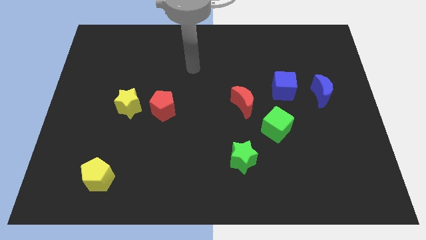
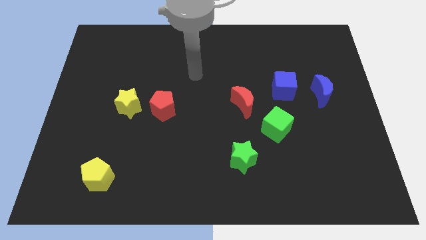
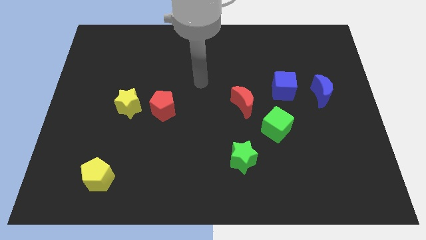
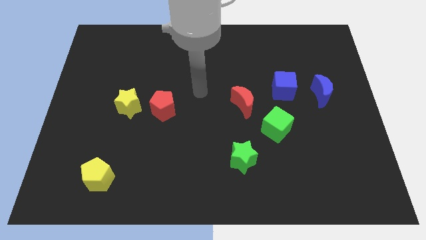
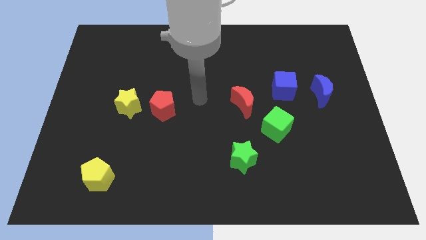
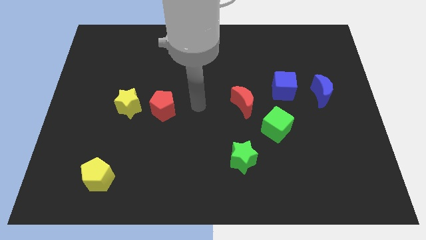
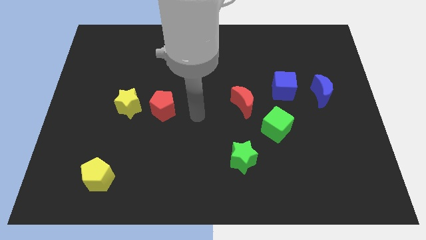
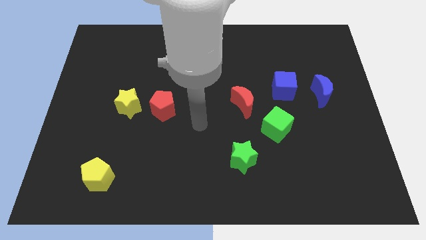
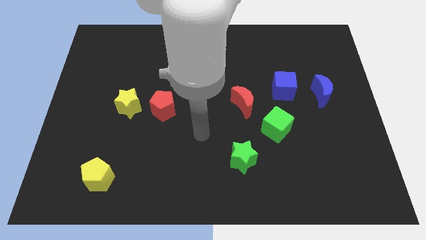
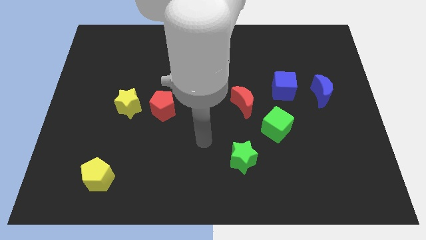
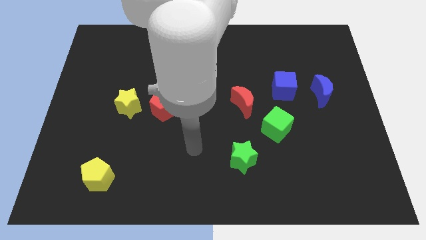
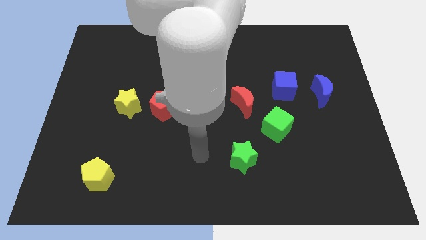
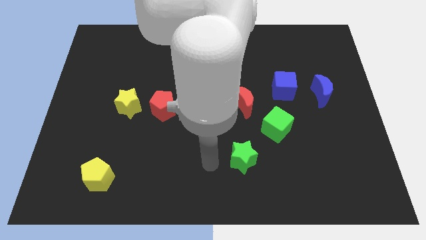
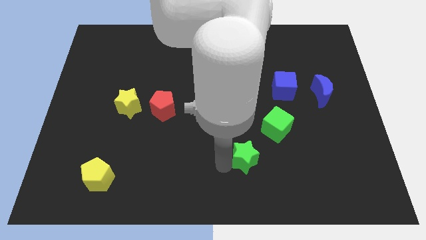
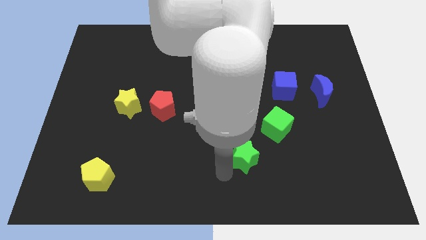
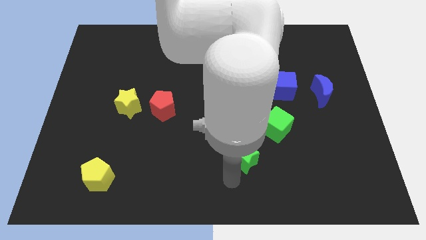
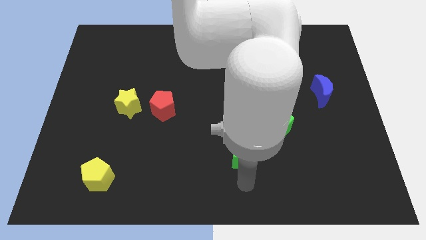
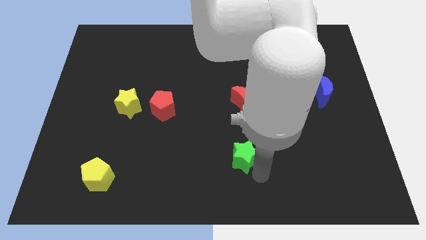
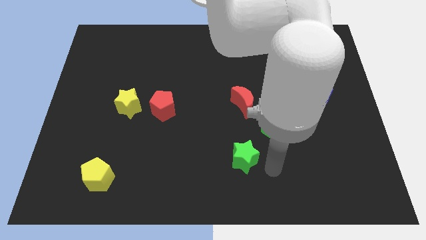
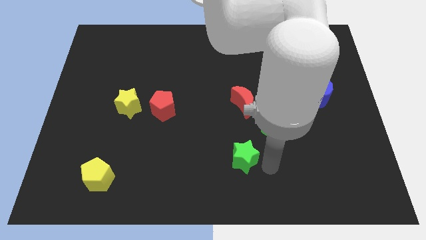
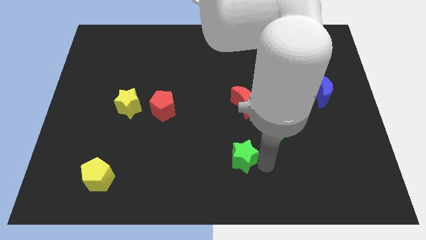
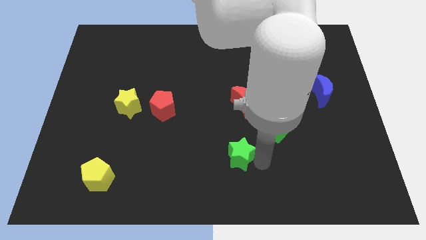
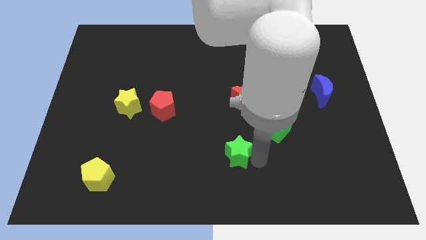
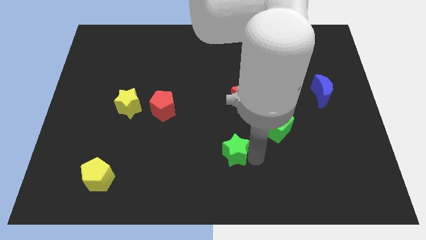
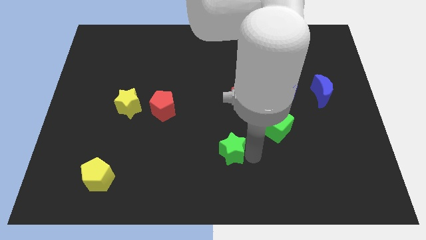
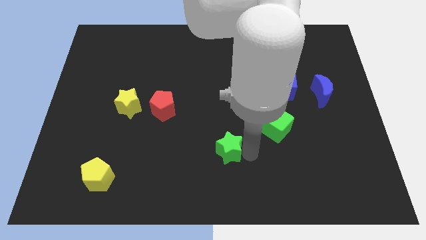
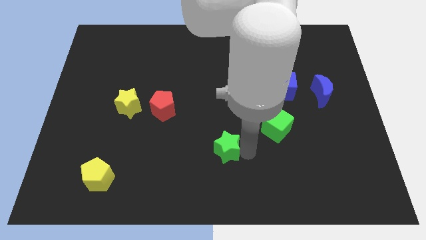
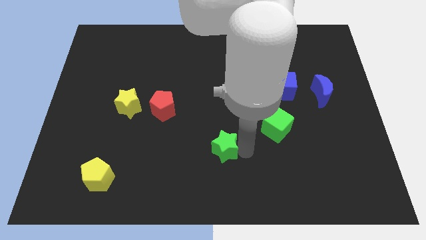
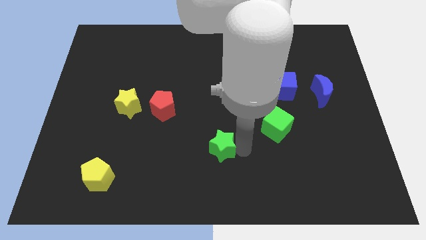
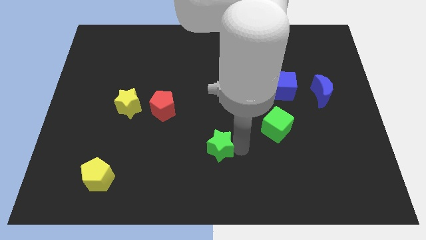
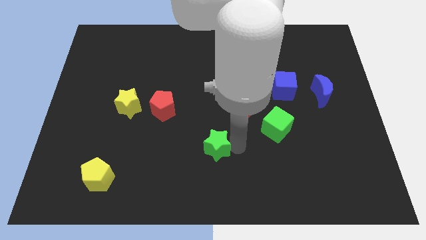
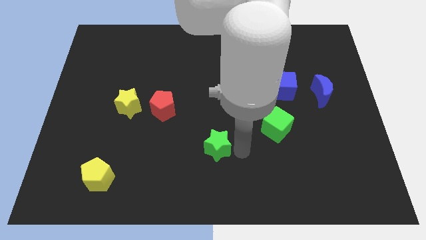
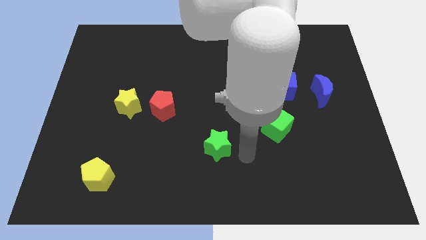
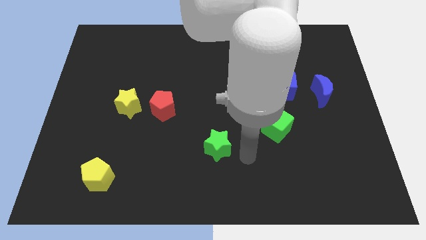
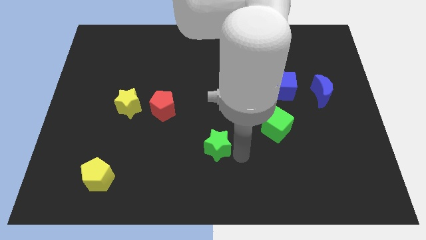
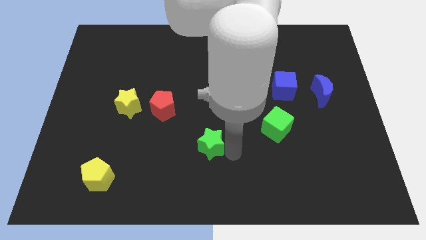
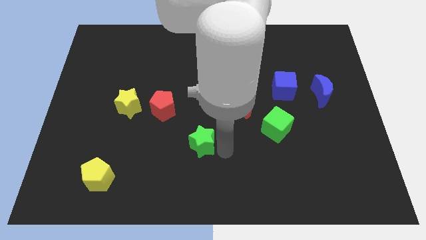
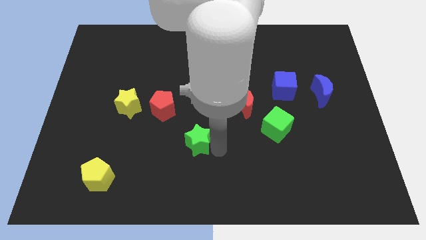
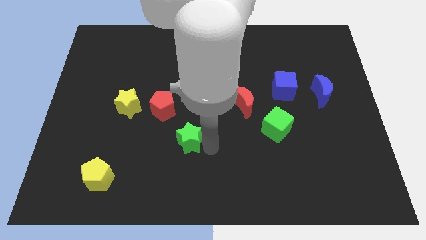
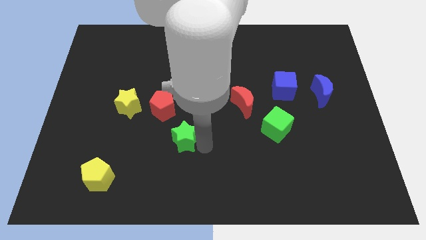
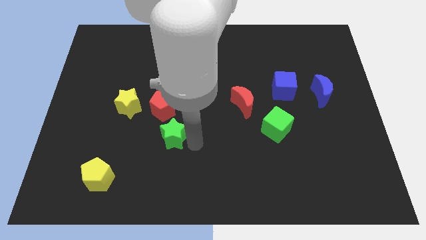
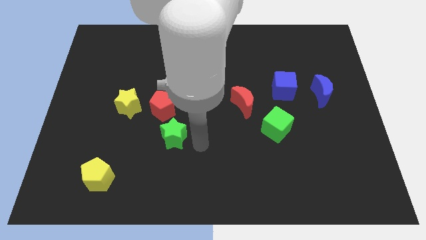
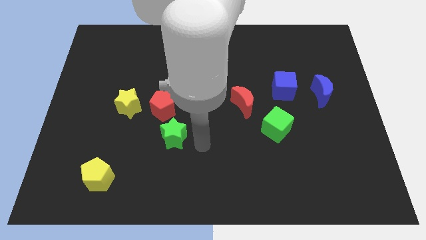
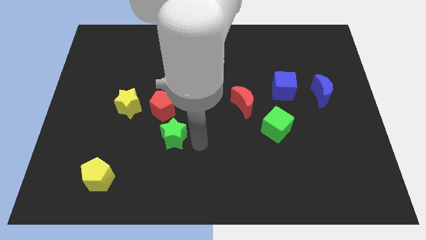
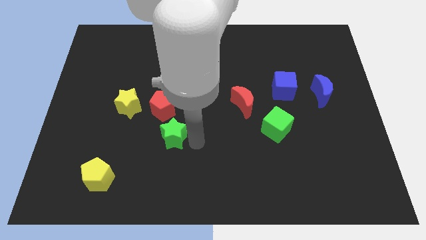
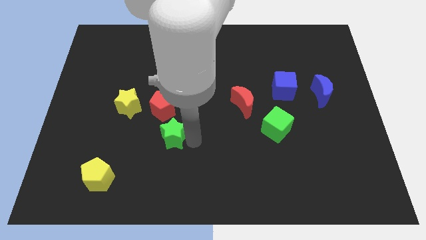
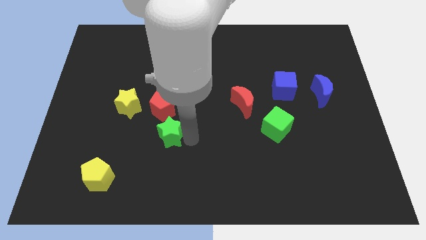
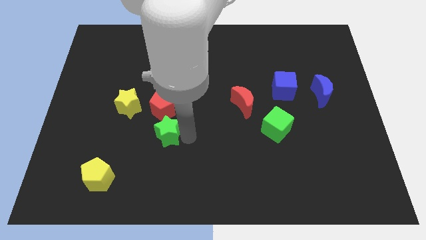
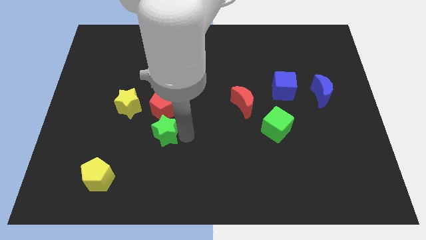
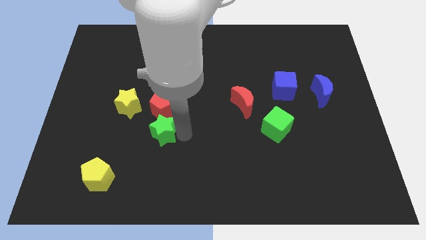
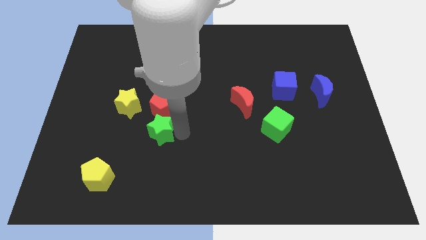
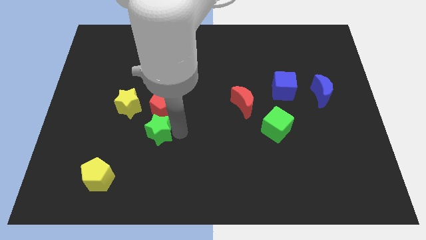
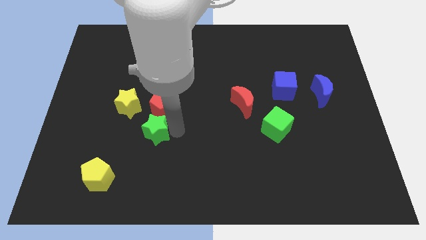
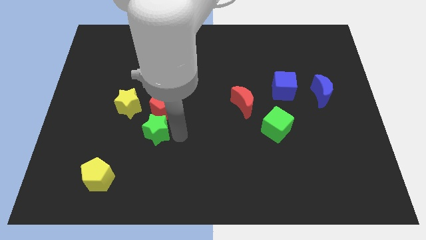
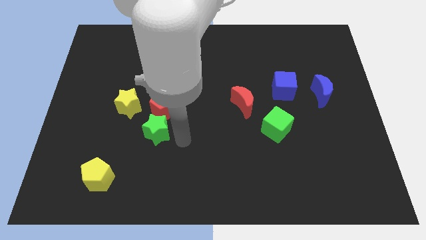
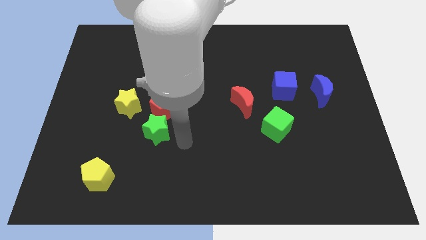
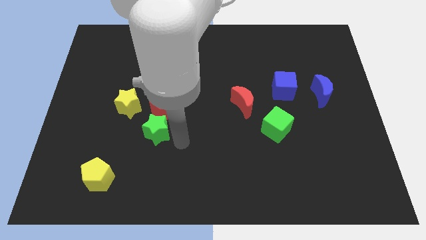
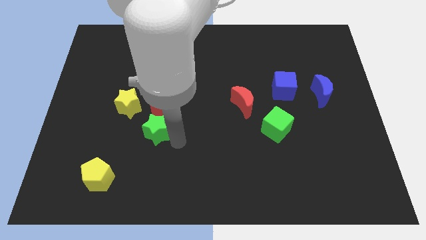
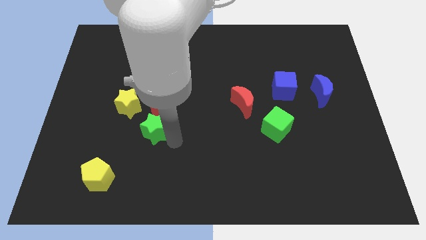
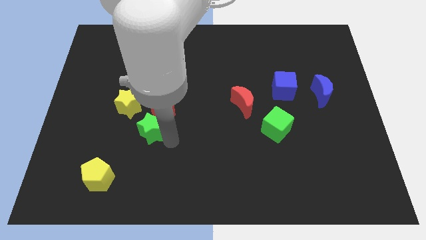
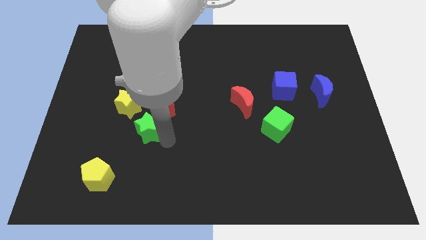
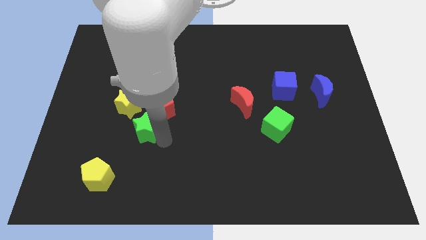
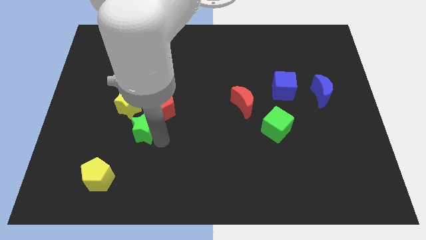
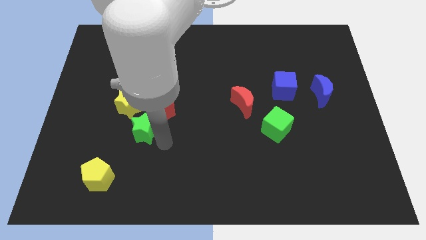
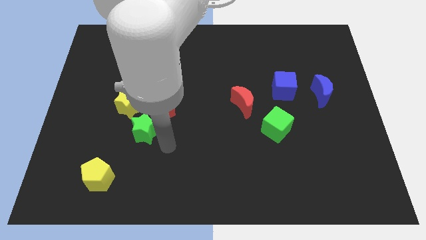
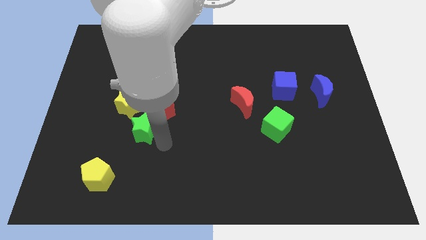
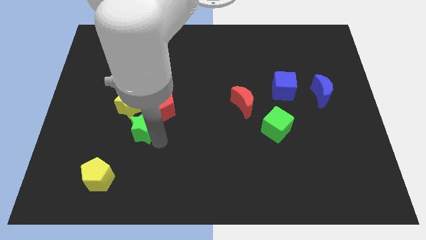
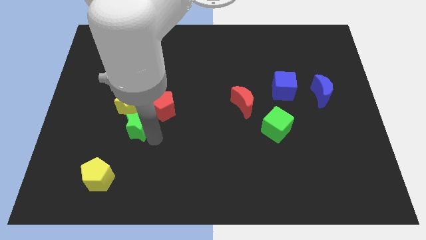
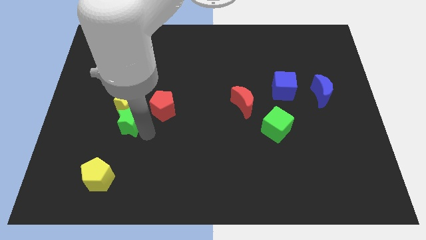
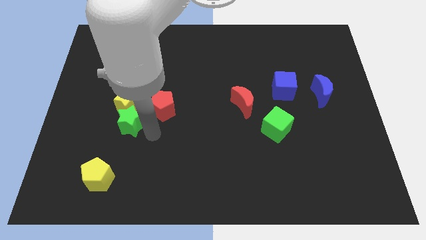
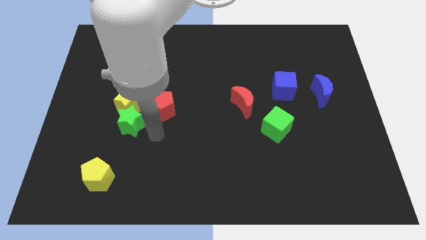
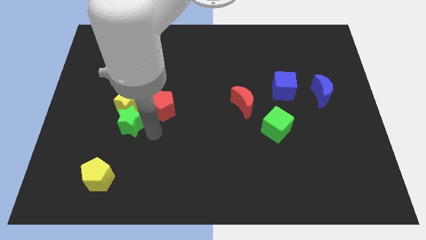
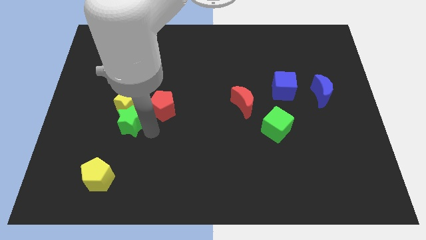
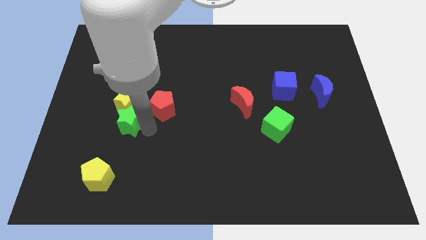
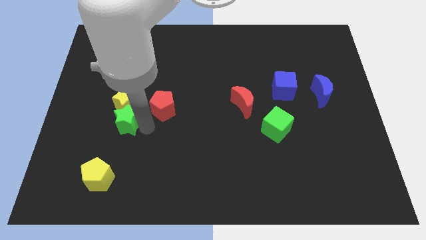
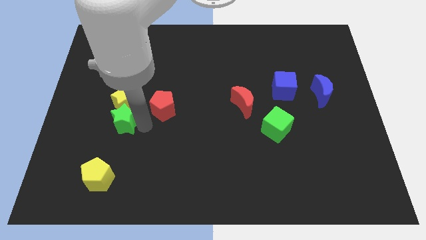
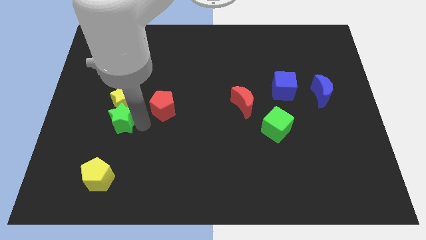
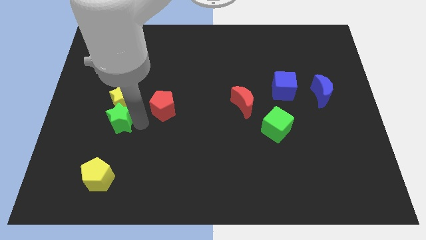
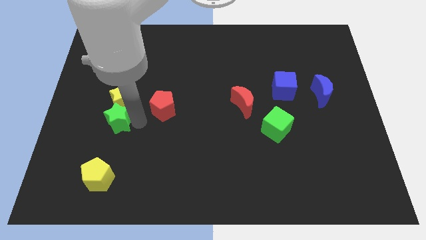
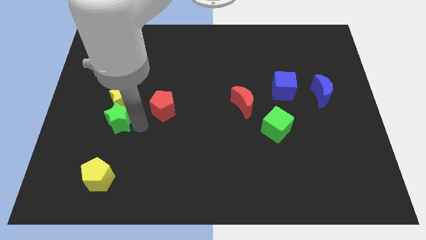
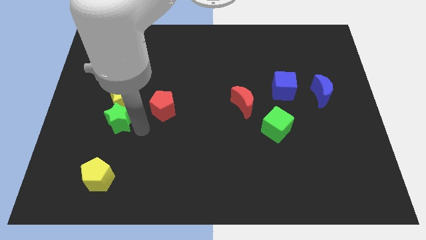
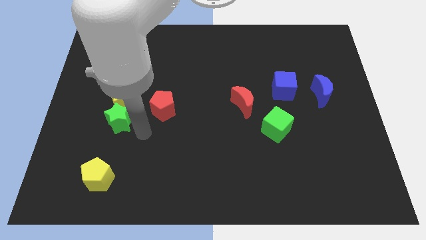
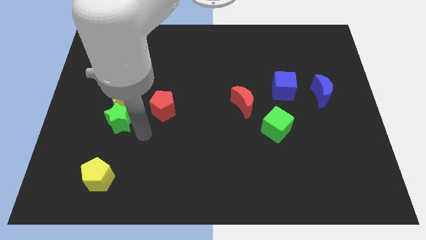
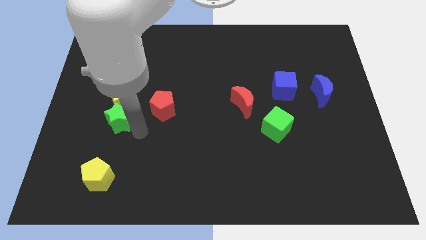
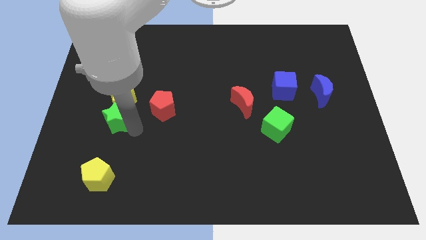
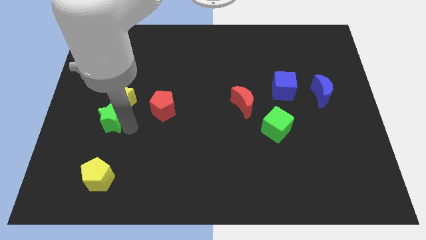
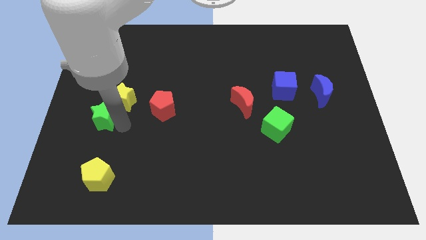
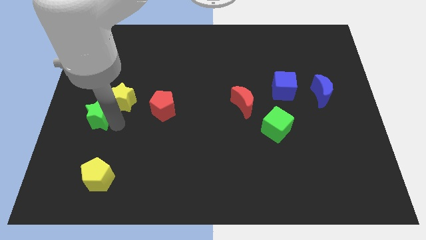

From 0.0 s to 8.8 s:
push the green star to the left side of the board
